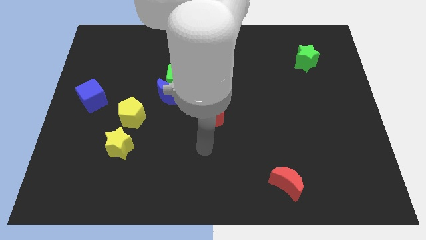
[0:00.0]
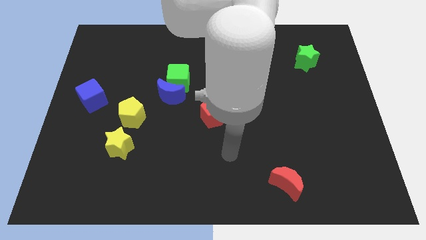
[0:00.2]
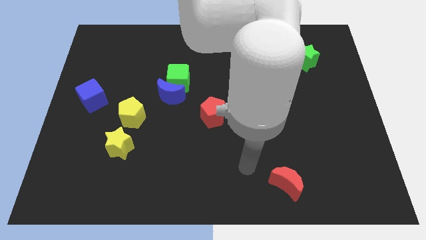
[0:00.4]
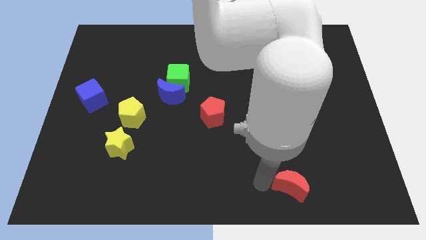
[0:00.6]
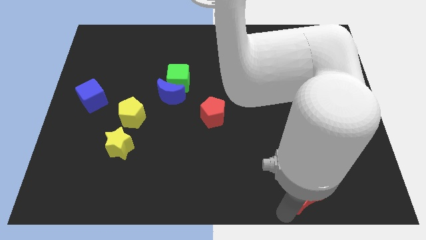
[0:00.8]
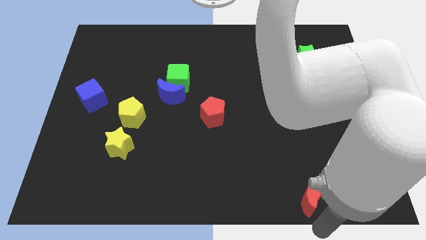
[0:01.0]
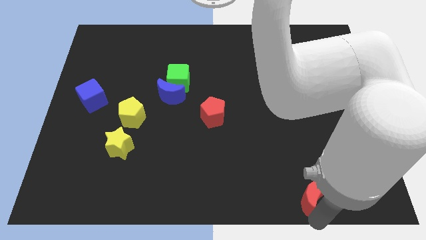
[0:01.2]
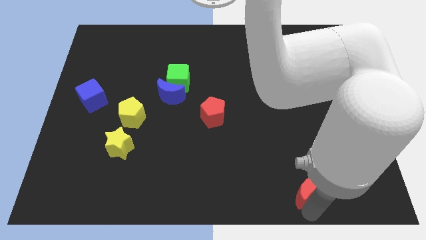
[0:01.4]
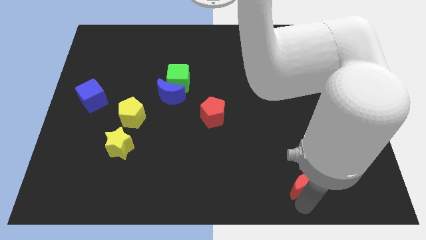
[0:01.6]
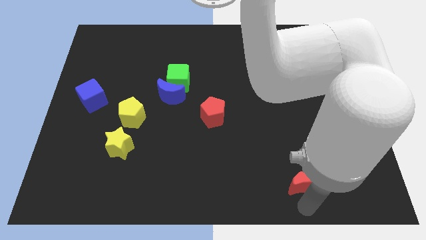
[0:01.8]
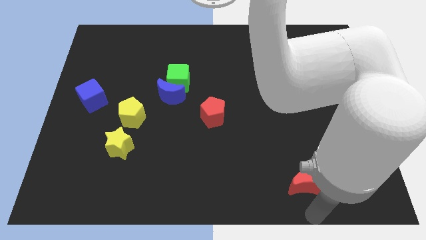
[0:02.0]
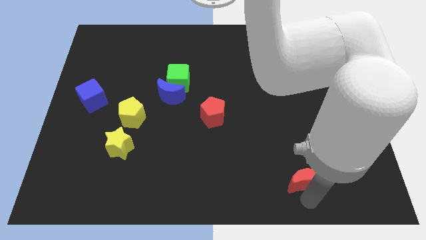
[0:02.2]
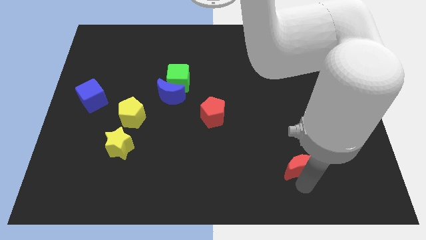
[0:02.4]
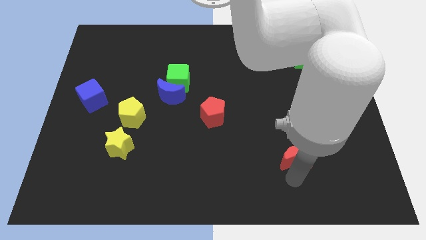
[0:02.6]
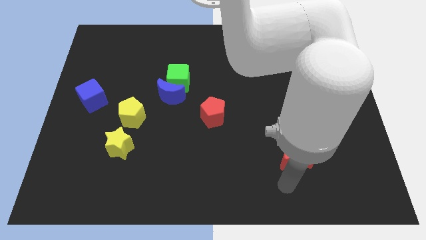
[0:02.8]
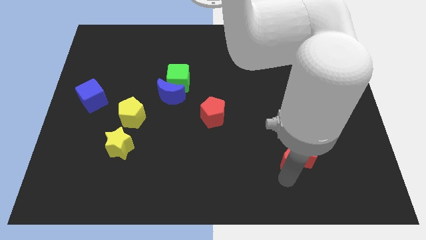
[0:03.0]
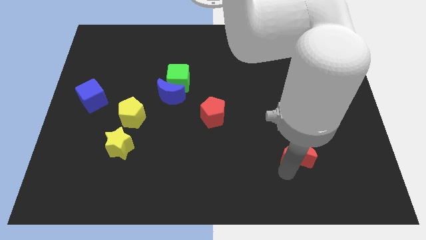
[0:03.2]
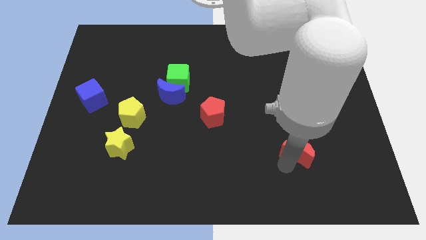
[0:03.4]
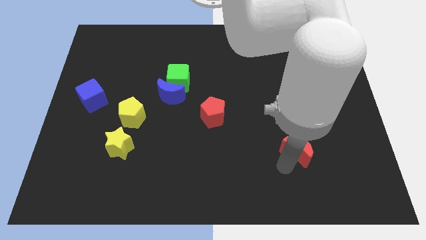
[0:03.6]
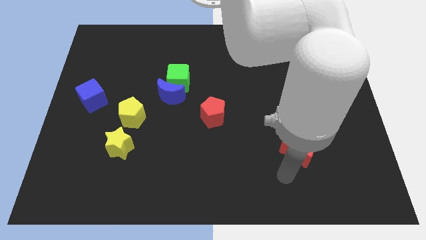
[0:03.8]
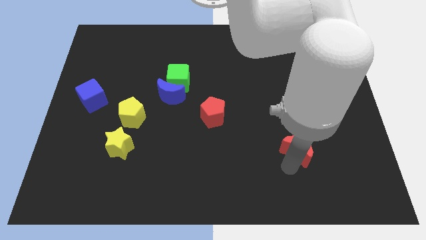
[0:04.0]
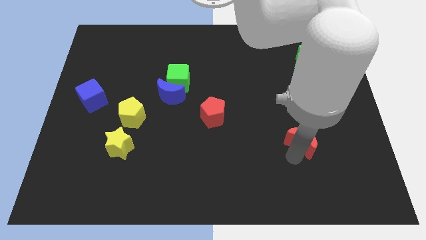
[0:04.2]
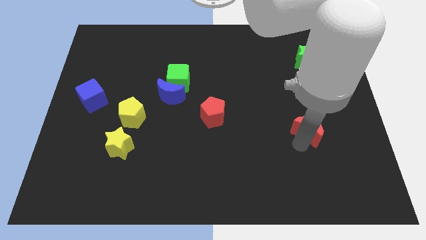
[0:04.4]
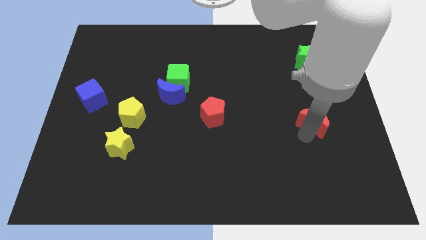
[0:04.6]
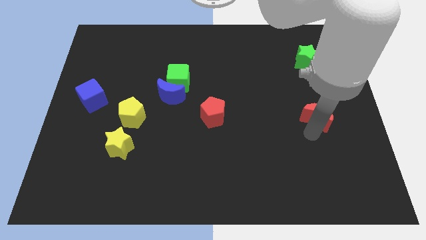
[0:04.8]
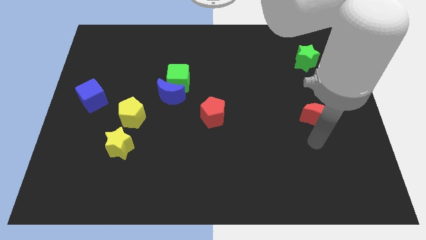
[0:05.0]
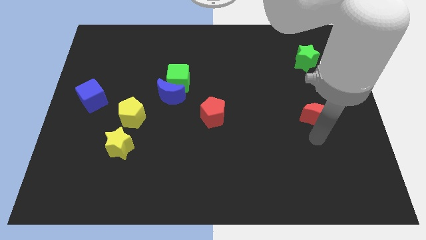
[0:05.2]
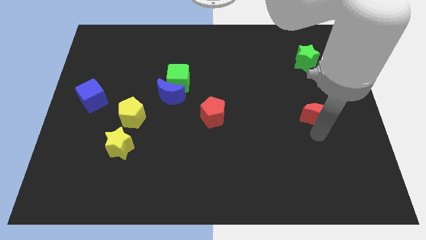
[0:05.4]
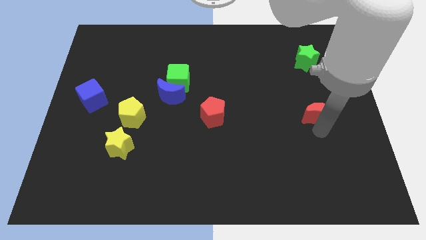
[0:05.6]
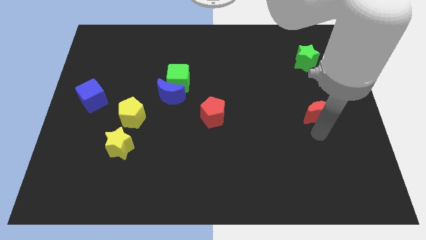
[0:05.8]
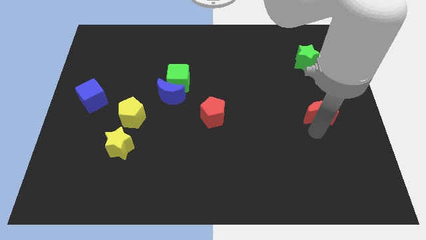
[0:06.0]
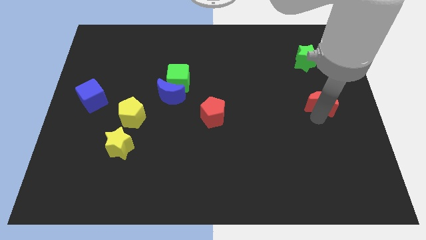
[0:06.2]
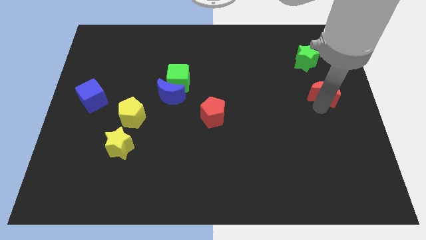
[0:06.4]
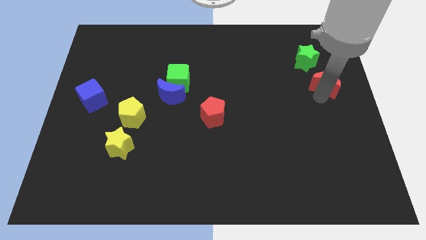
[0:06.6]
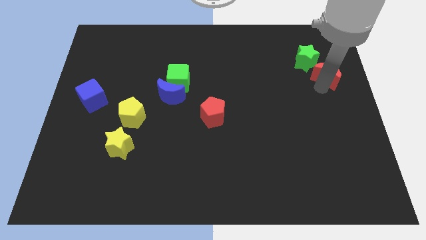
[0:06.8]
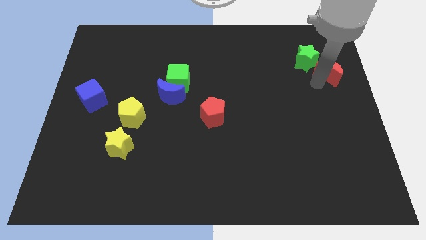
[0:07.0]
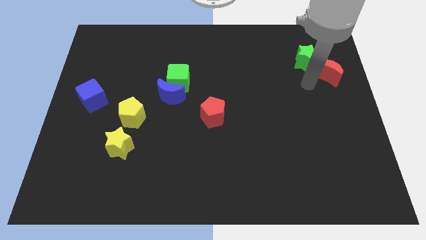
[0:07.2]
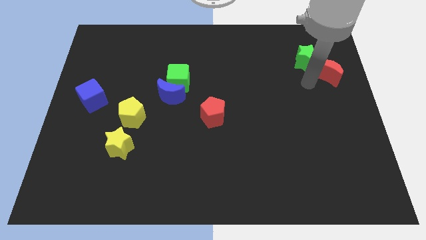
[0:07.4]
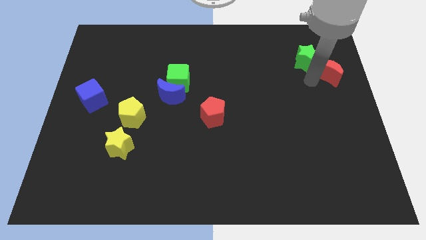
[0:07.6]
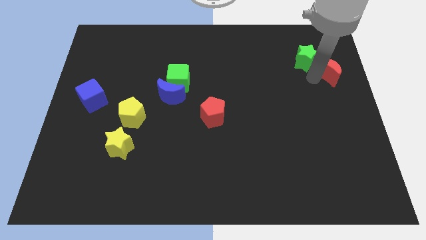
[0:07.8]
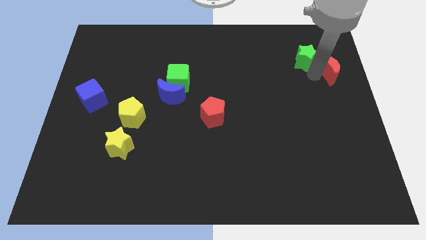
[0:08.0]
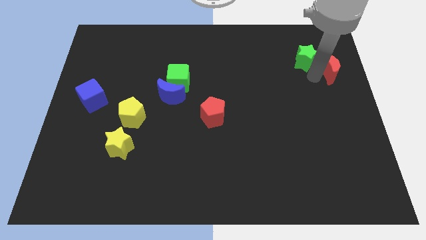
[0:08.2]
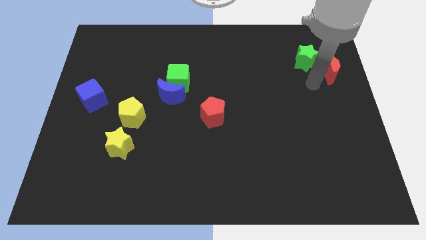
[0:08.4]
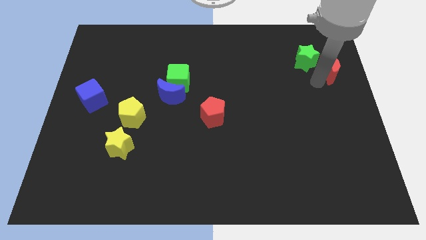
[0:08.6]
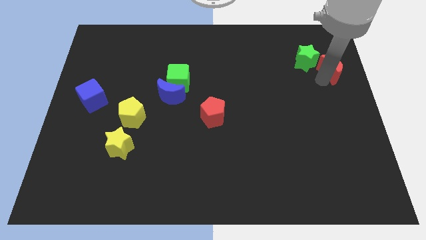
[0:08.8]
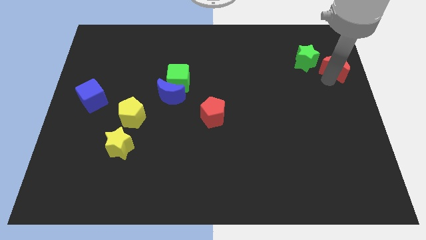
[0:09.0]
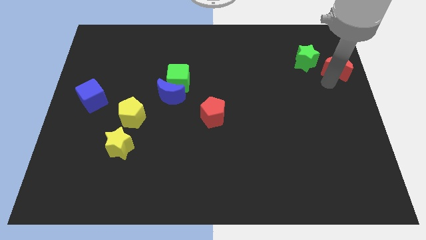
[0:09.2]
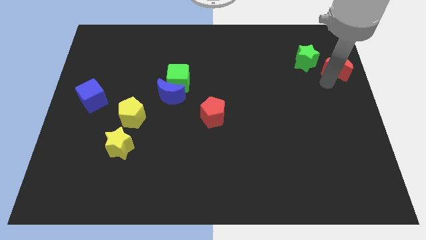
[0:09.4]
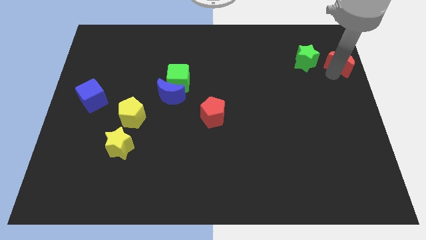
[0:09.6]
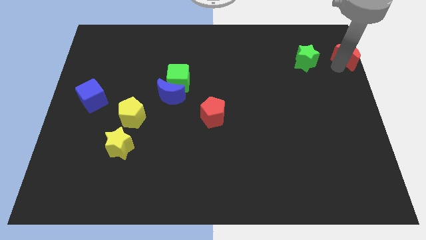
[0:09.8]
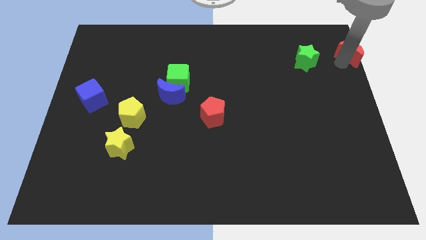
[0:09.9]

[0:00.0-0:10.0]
slide the red moon to the upper right corner
